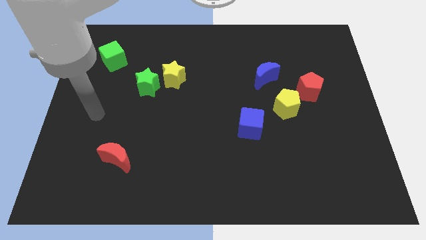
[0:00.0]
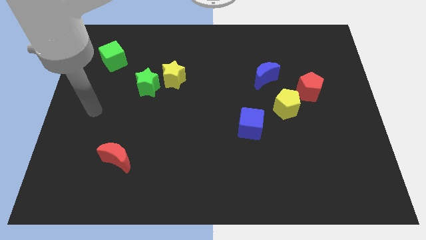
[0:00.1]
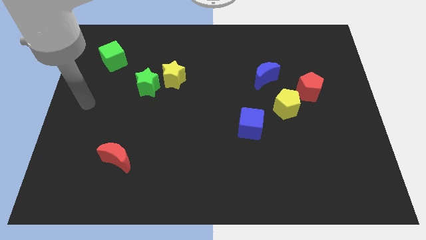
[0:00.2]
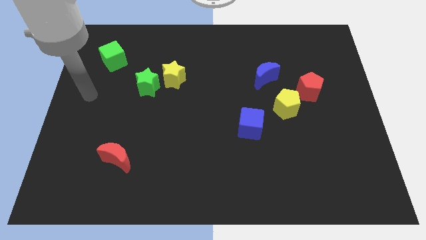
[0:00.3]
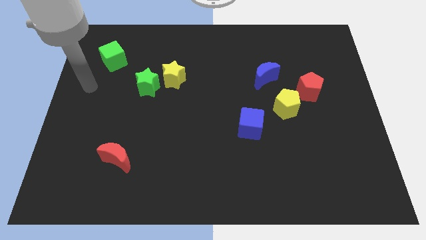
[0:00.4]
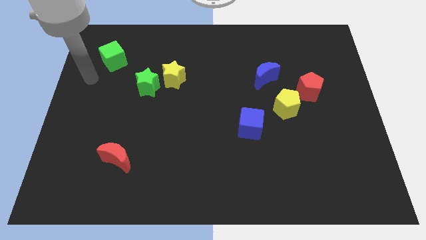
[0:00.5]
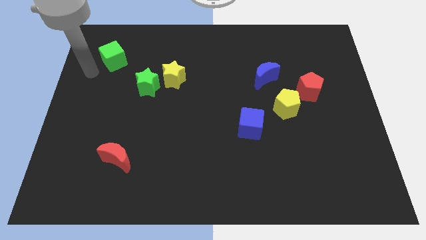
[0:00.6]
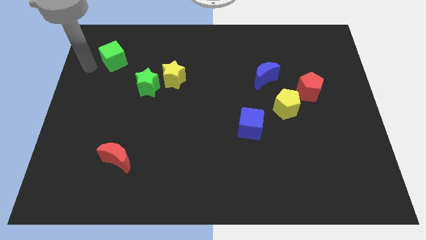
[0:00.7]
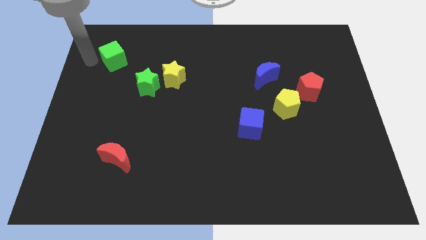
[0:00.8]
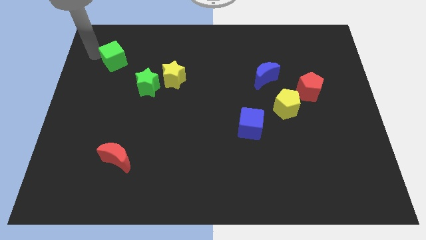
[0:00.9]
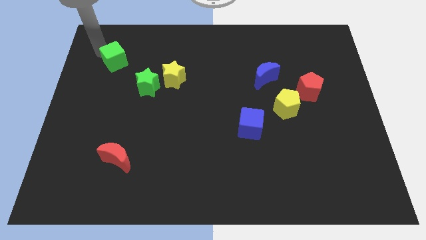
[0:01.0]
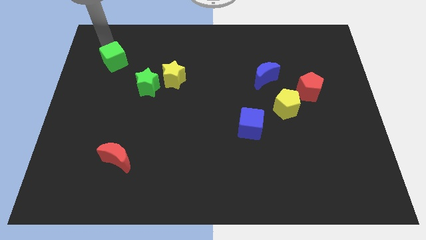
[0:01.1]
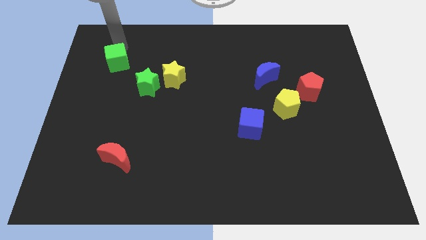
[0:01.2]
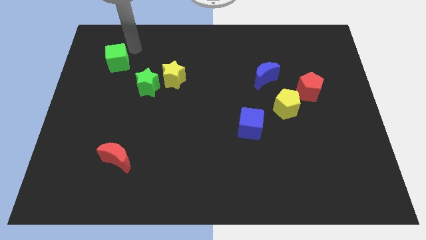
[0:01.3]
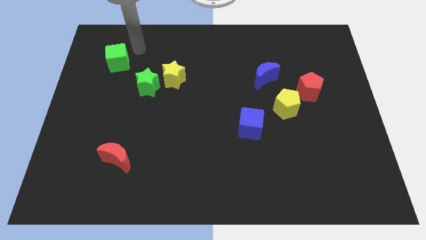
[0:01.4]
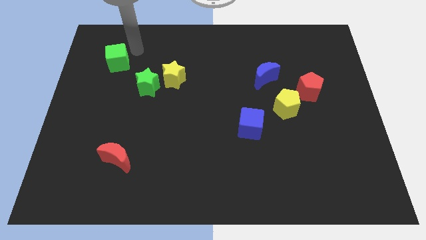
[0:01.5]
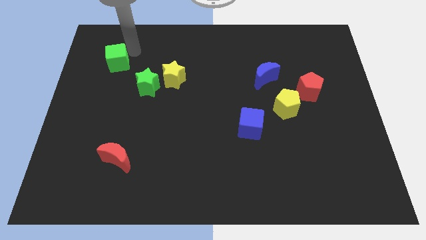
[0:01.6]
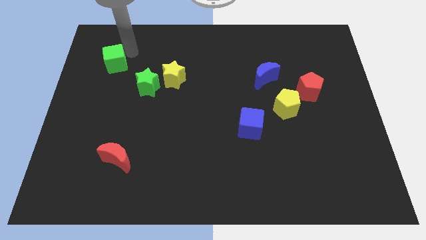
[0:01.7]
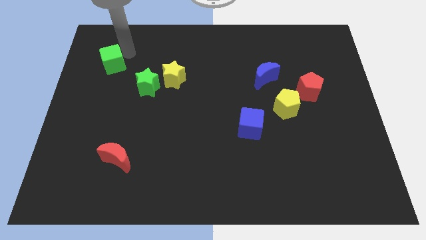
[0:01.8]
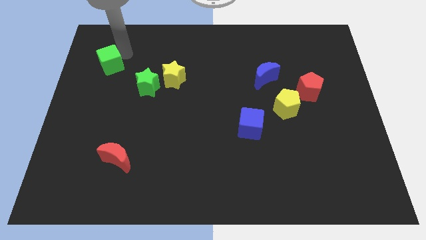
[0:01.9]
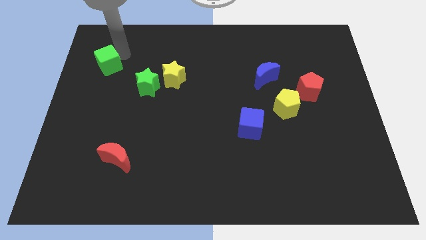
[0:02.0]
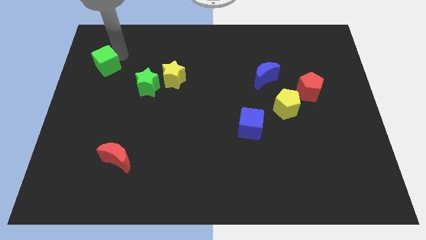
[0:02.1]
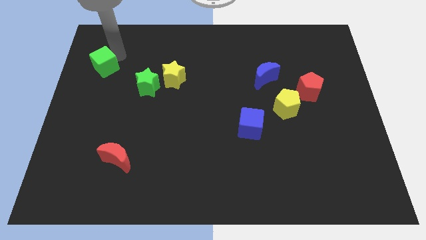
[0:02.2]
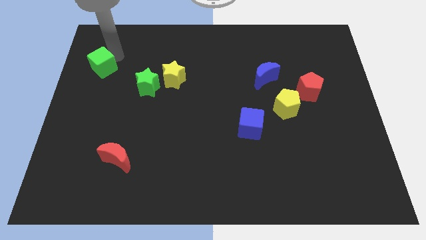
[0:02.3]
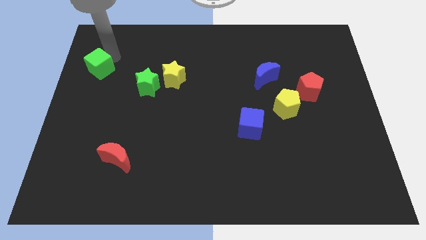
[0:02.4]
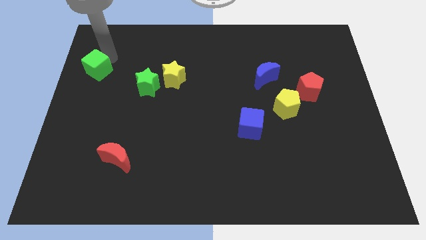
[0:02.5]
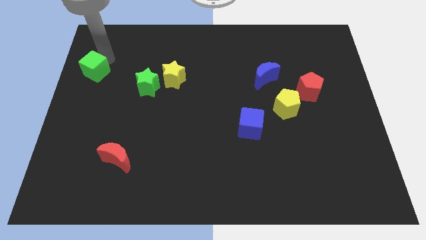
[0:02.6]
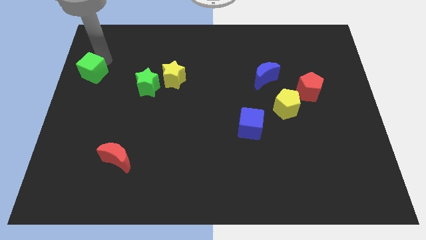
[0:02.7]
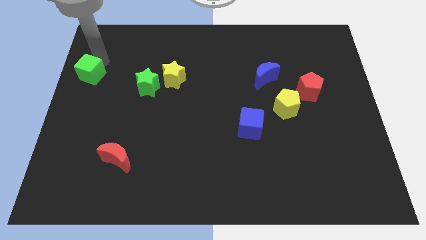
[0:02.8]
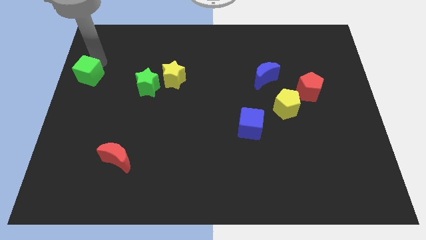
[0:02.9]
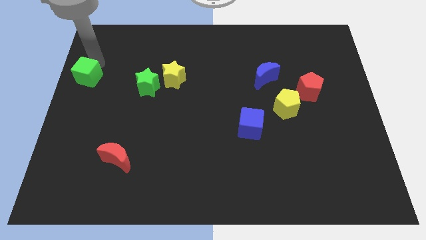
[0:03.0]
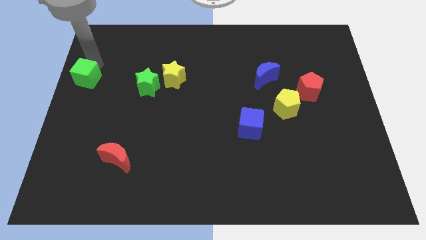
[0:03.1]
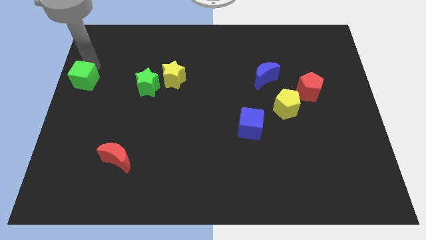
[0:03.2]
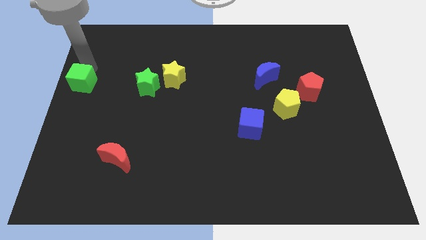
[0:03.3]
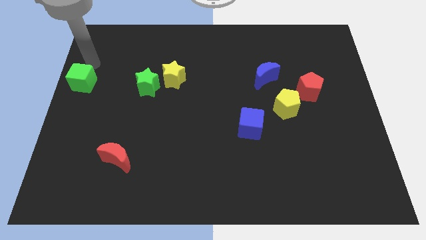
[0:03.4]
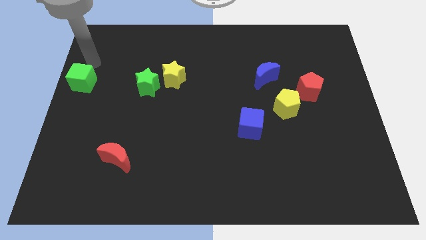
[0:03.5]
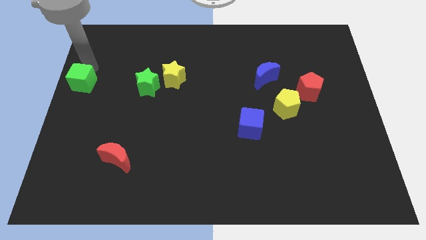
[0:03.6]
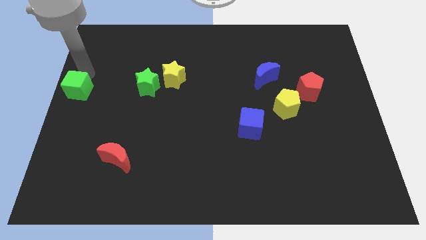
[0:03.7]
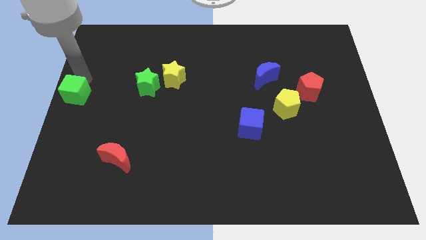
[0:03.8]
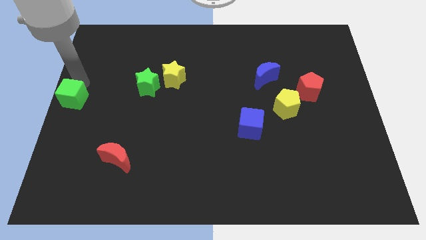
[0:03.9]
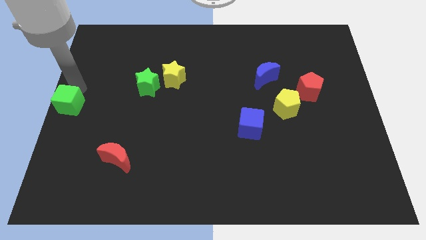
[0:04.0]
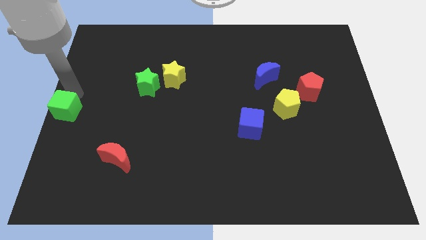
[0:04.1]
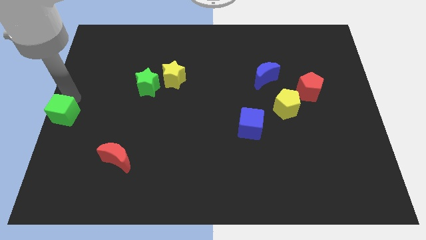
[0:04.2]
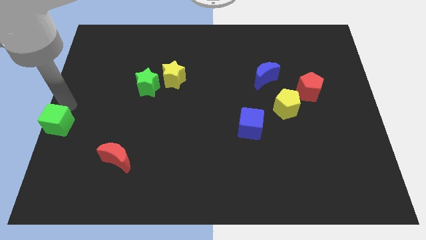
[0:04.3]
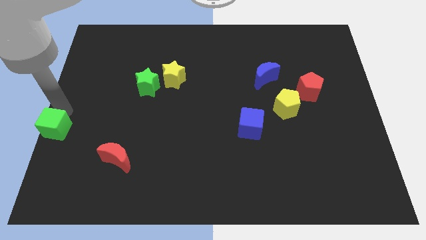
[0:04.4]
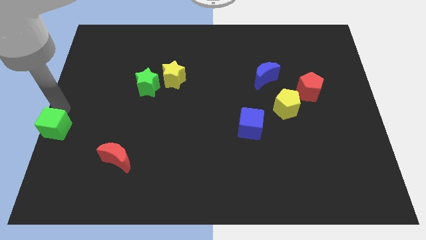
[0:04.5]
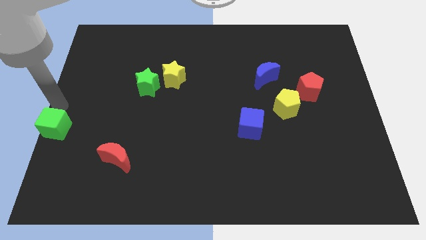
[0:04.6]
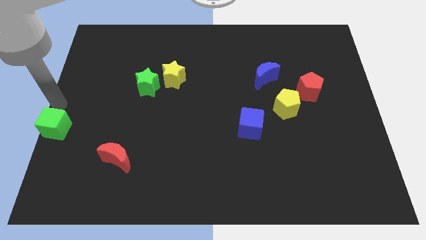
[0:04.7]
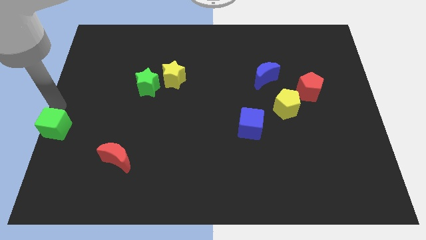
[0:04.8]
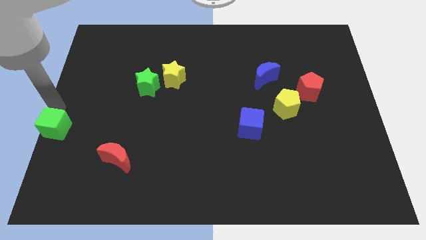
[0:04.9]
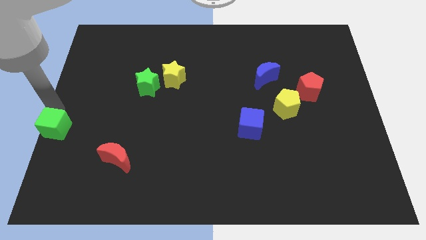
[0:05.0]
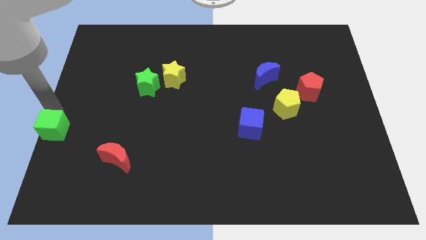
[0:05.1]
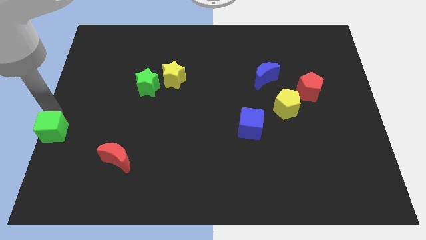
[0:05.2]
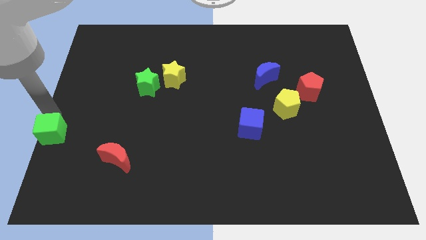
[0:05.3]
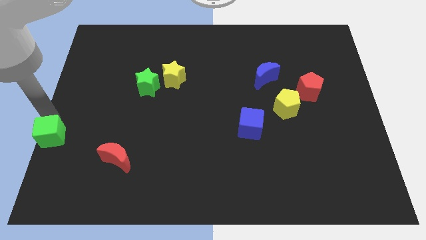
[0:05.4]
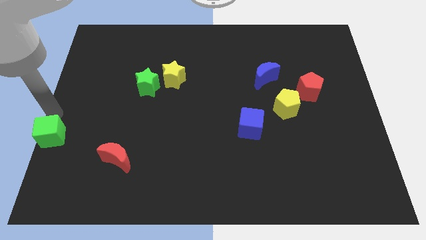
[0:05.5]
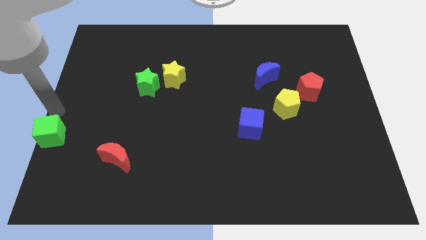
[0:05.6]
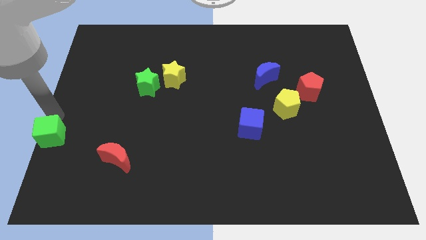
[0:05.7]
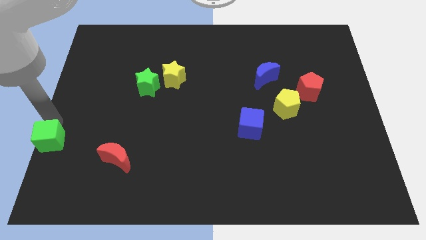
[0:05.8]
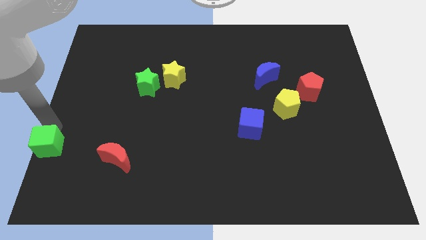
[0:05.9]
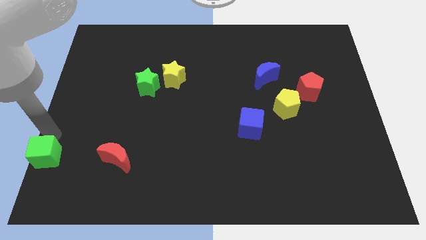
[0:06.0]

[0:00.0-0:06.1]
put the green cube to the bottom left

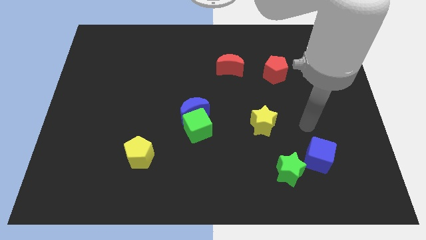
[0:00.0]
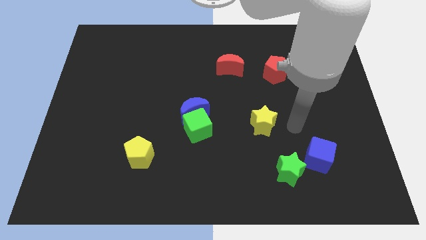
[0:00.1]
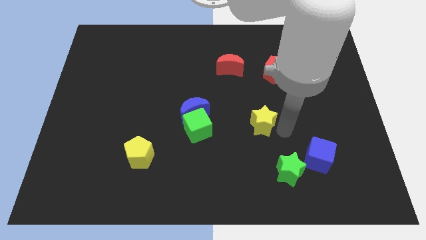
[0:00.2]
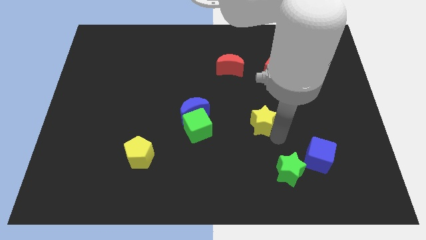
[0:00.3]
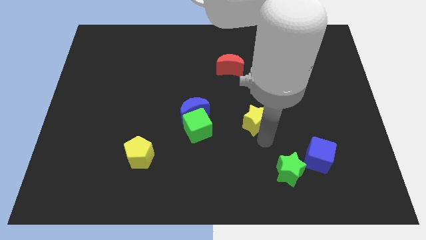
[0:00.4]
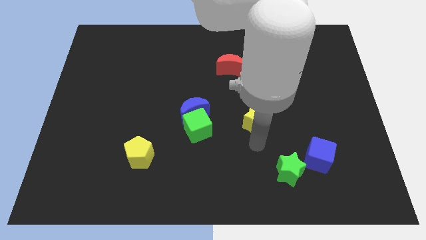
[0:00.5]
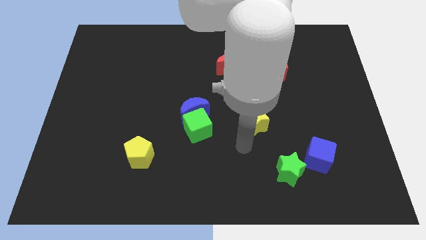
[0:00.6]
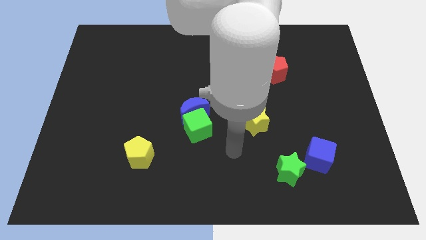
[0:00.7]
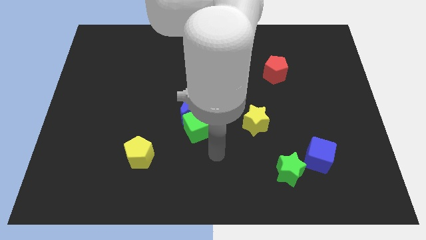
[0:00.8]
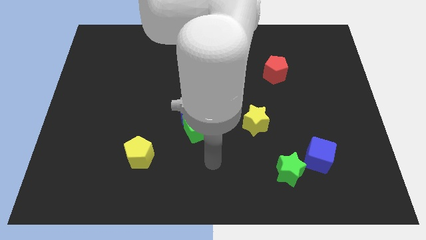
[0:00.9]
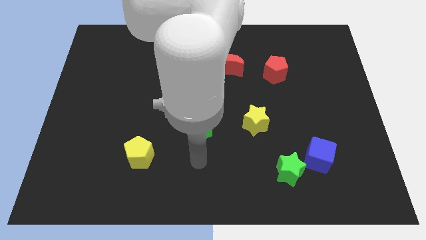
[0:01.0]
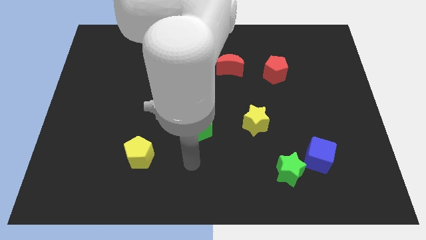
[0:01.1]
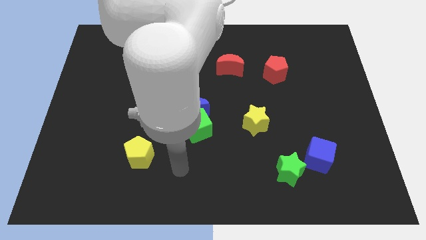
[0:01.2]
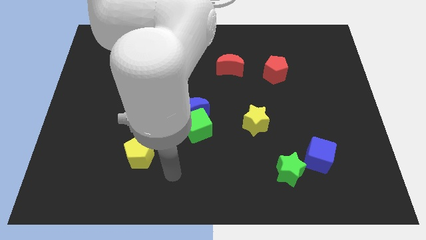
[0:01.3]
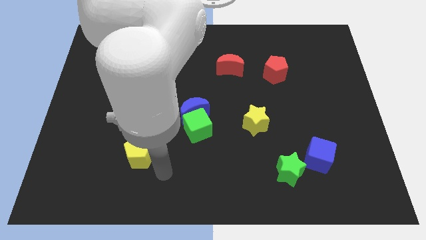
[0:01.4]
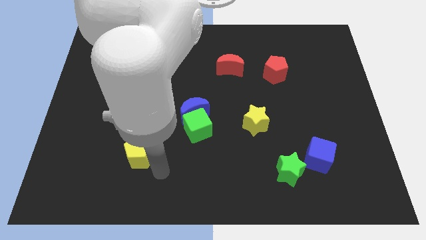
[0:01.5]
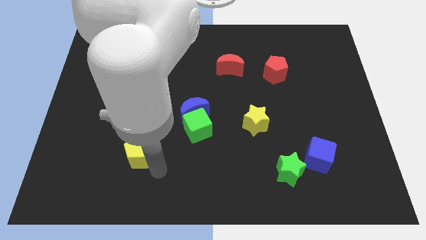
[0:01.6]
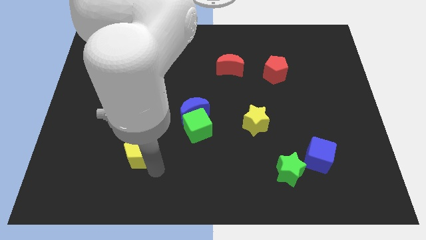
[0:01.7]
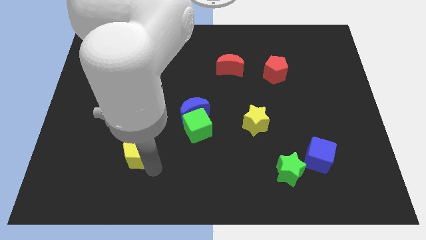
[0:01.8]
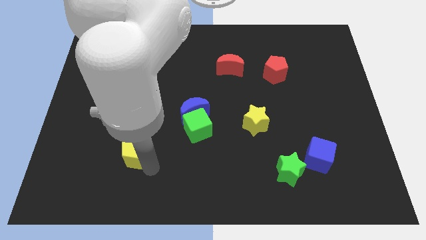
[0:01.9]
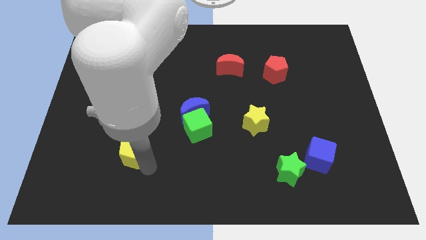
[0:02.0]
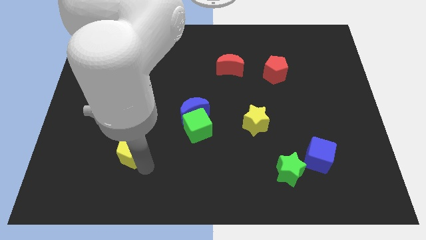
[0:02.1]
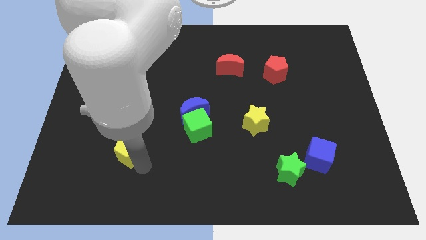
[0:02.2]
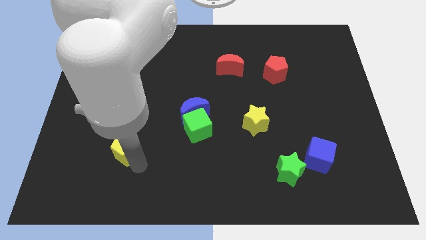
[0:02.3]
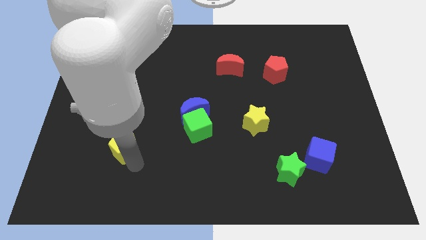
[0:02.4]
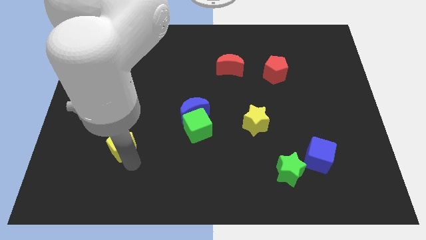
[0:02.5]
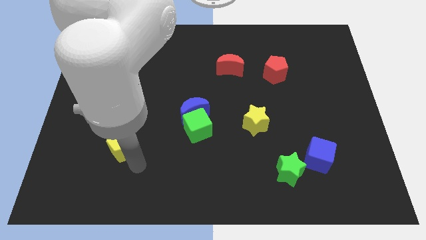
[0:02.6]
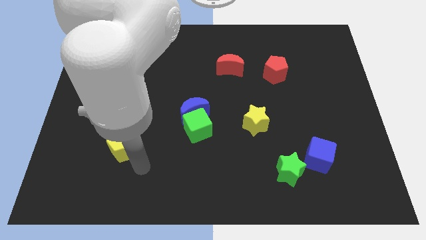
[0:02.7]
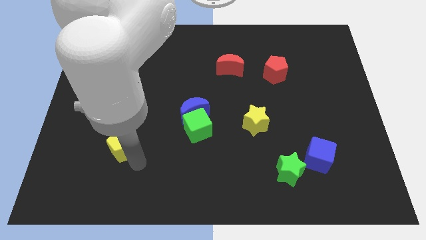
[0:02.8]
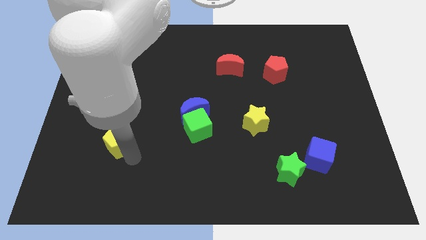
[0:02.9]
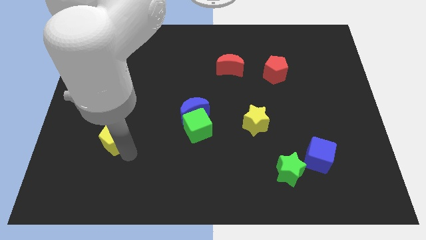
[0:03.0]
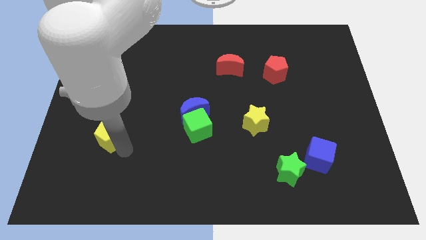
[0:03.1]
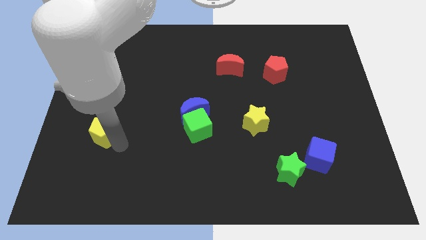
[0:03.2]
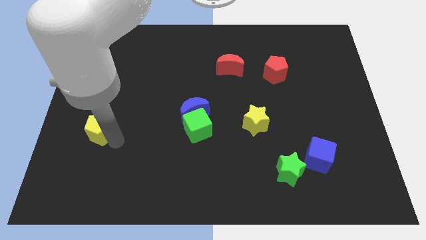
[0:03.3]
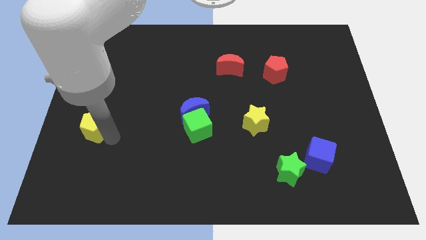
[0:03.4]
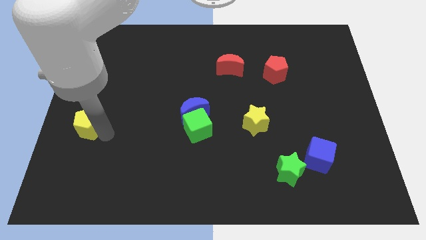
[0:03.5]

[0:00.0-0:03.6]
push the yellow pentagon to the left side of the board
